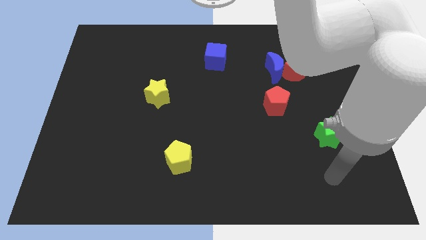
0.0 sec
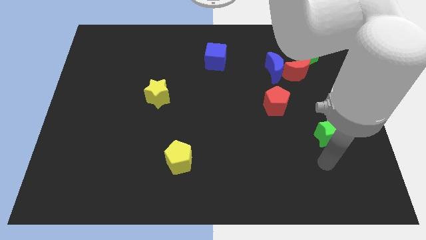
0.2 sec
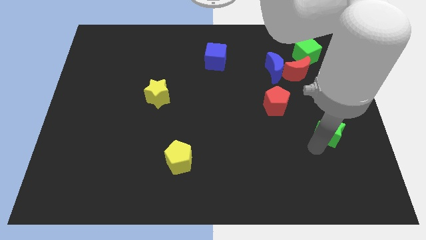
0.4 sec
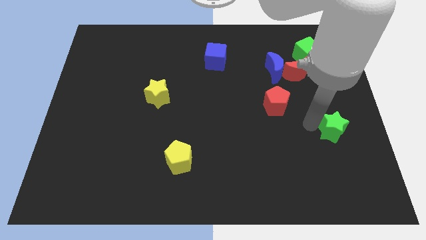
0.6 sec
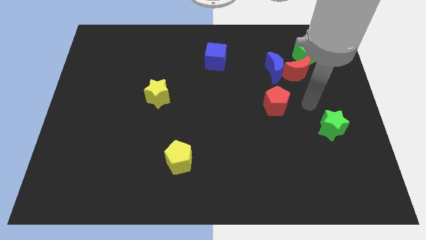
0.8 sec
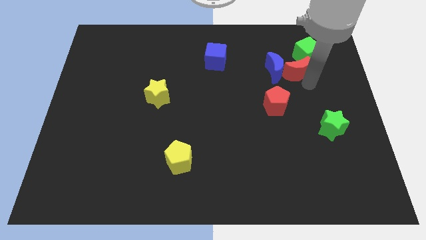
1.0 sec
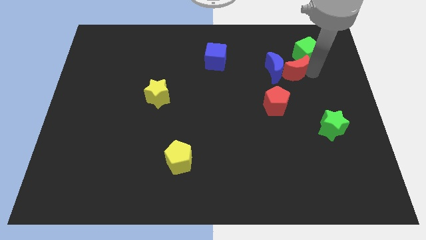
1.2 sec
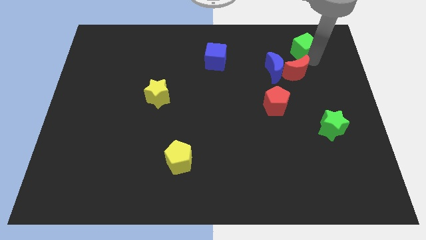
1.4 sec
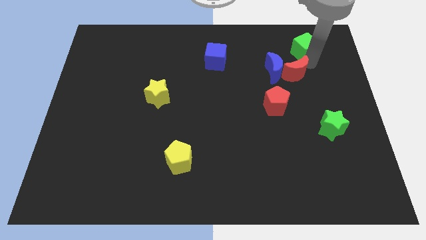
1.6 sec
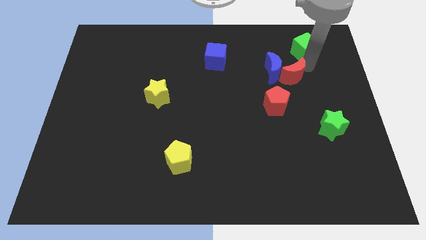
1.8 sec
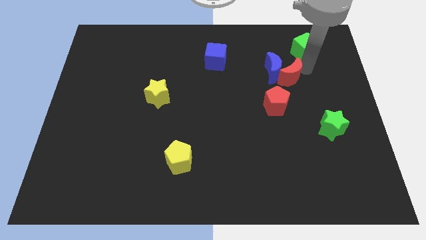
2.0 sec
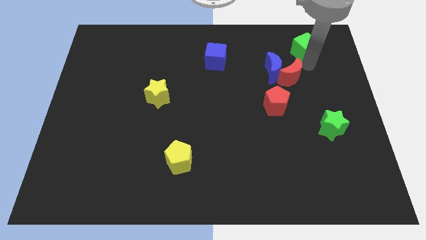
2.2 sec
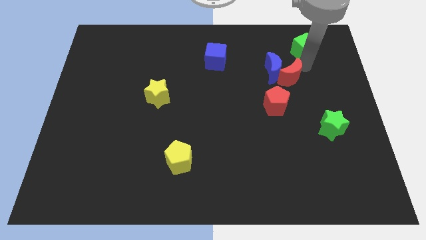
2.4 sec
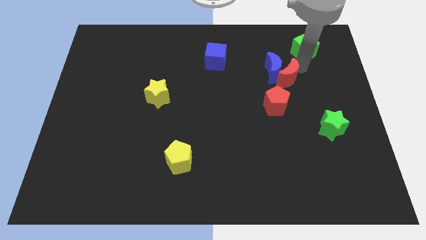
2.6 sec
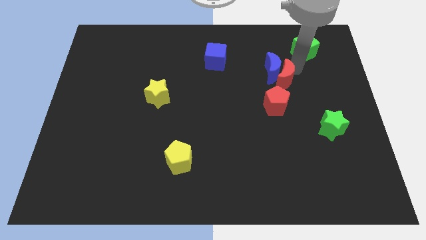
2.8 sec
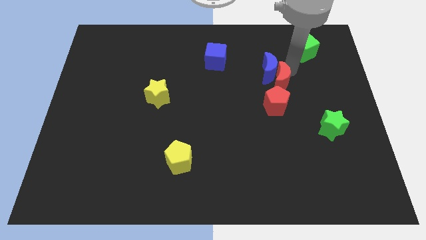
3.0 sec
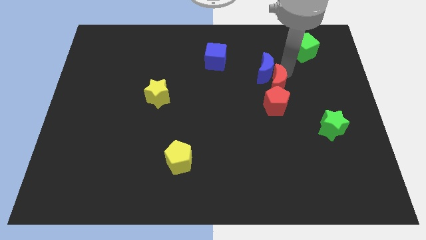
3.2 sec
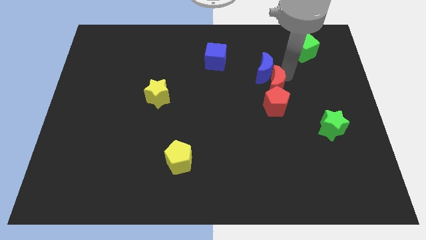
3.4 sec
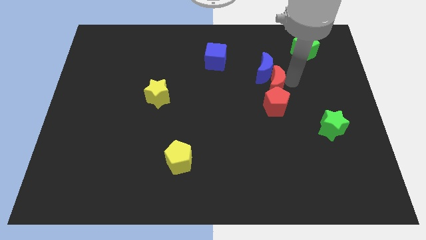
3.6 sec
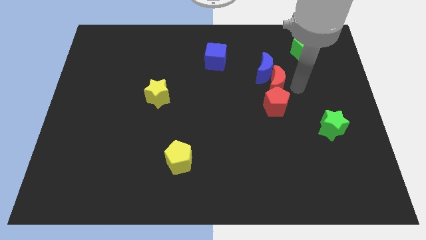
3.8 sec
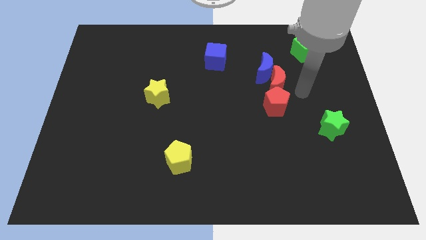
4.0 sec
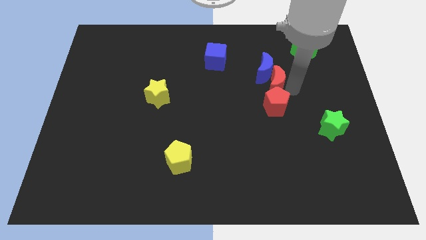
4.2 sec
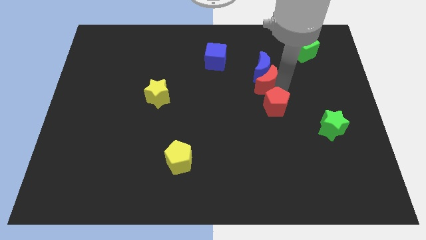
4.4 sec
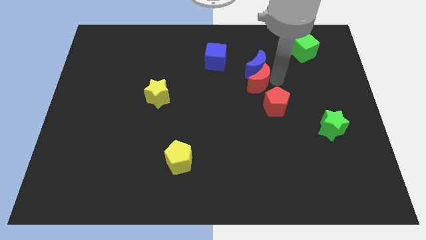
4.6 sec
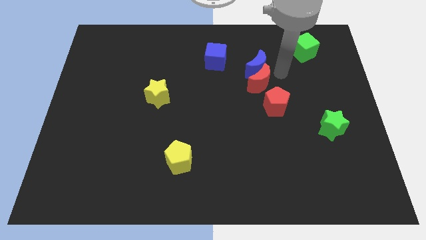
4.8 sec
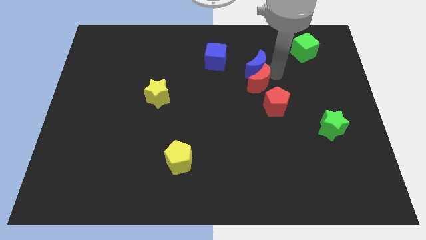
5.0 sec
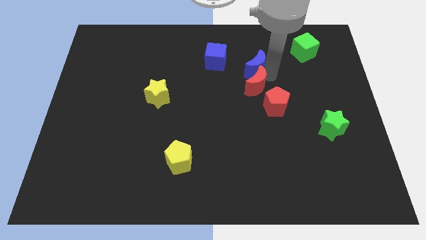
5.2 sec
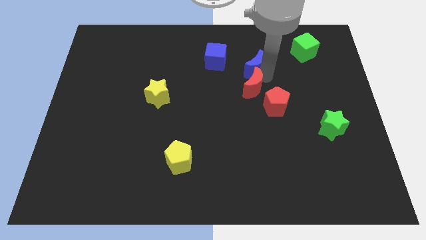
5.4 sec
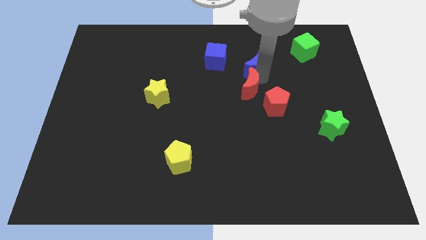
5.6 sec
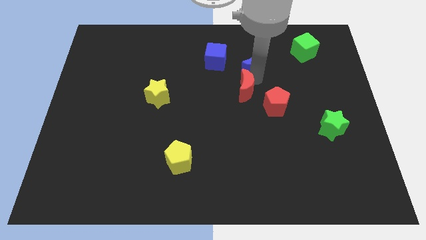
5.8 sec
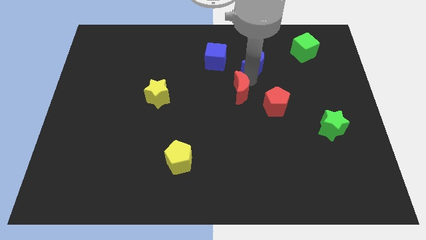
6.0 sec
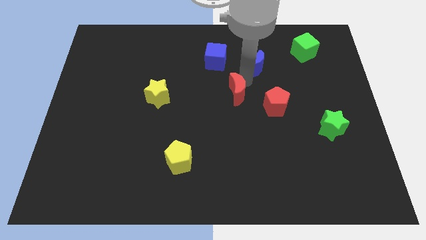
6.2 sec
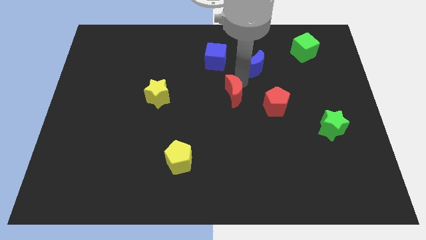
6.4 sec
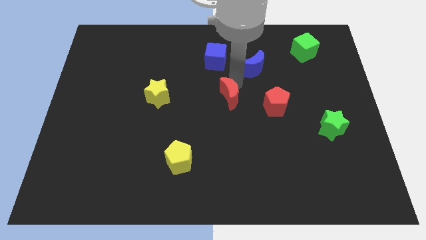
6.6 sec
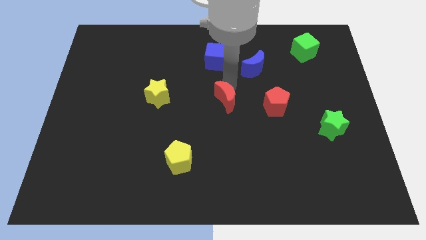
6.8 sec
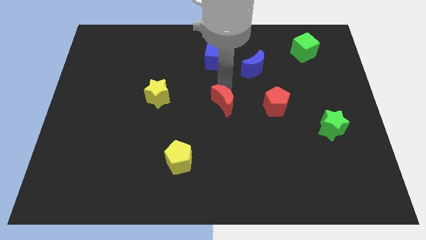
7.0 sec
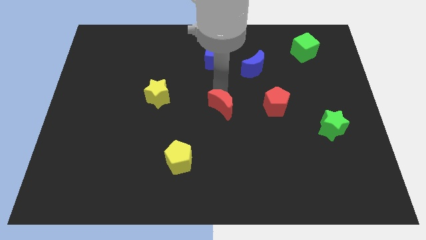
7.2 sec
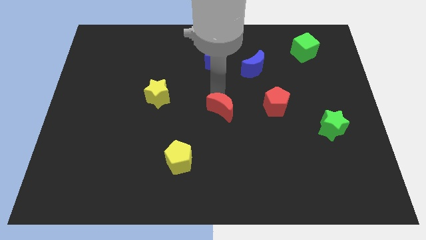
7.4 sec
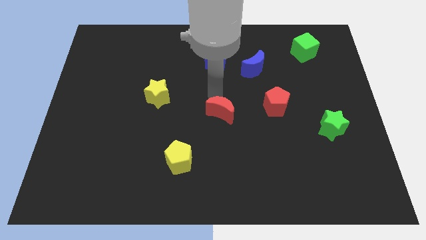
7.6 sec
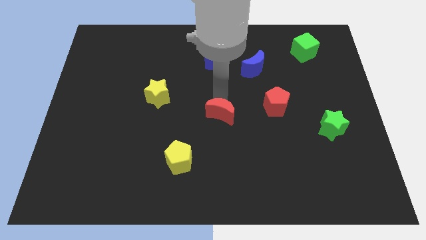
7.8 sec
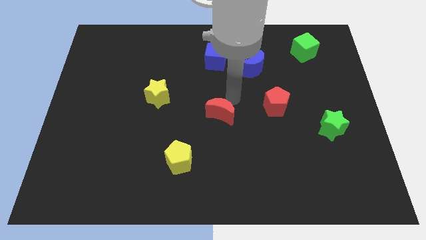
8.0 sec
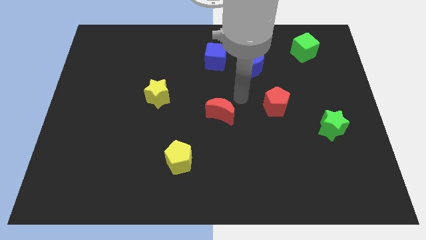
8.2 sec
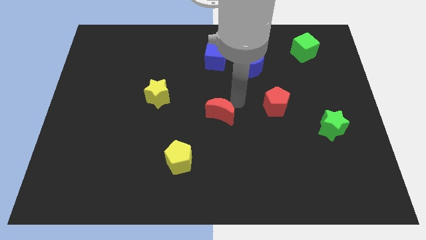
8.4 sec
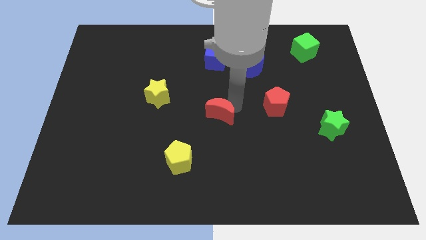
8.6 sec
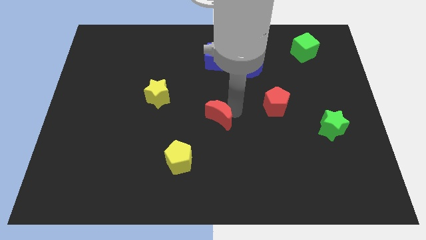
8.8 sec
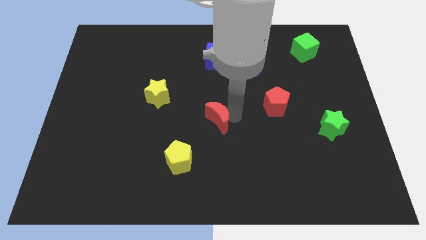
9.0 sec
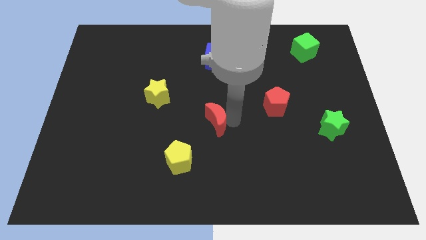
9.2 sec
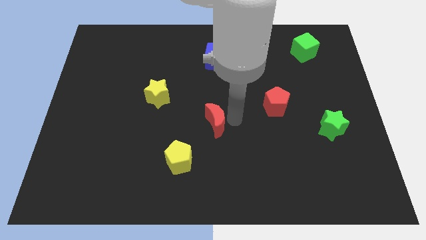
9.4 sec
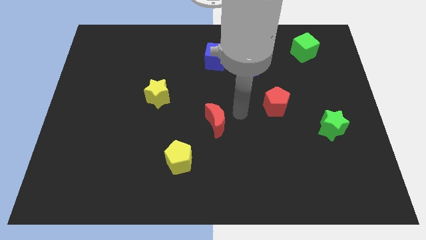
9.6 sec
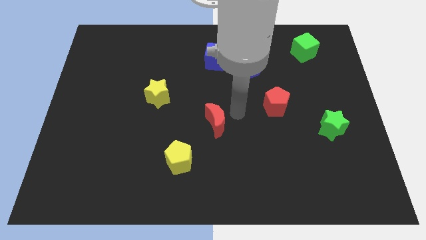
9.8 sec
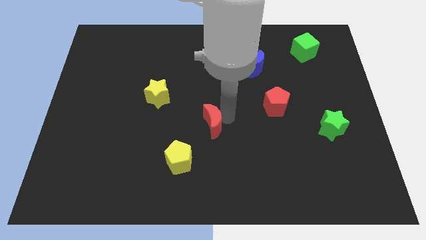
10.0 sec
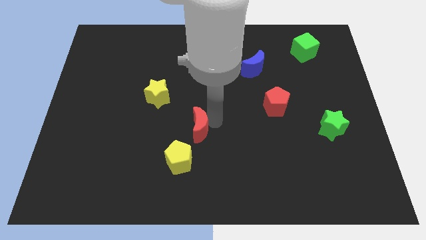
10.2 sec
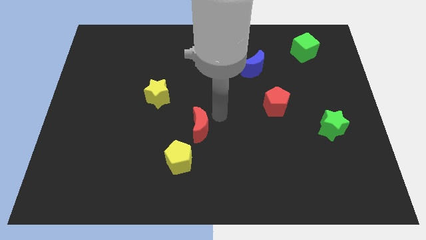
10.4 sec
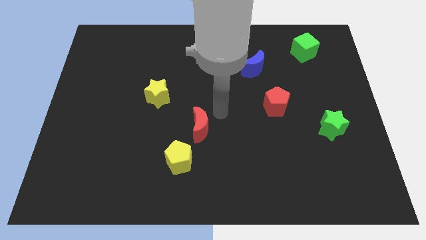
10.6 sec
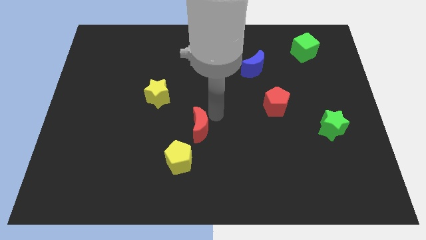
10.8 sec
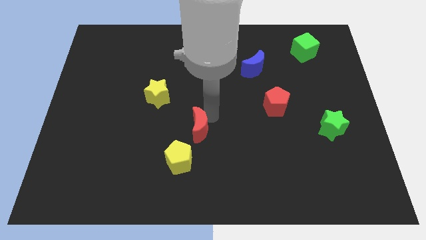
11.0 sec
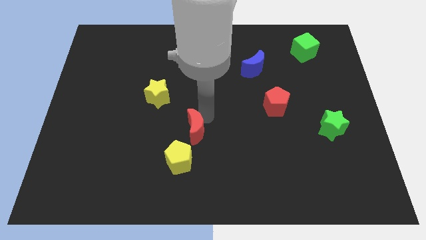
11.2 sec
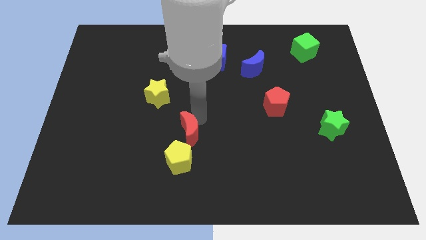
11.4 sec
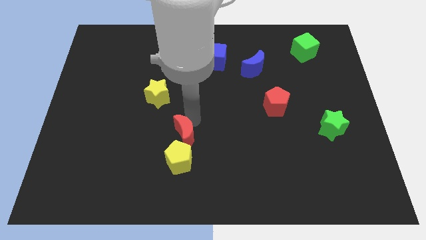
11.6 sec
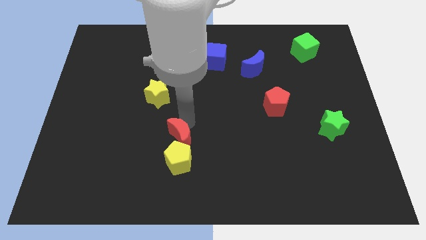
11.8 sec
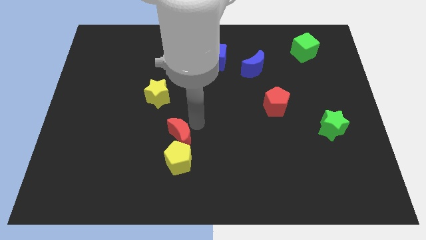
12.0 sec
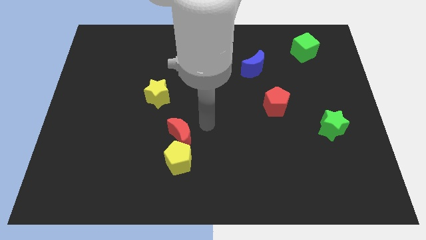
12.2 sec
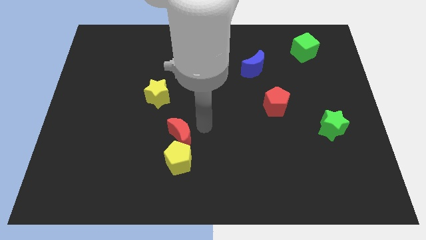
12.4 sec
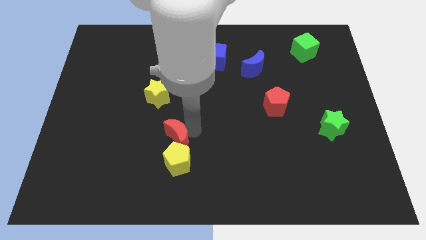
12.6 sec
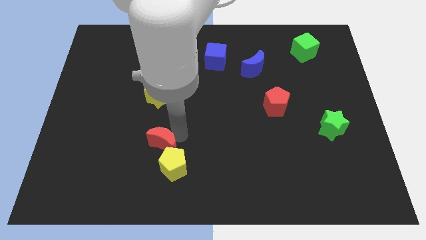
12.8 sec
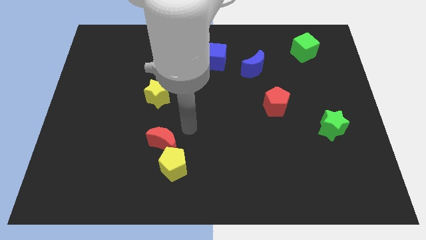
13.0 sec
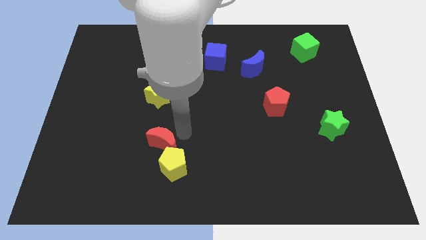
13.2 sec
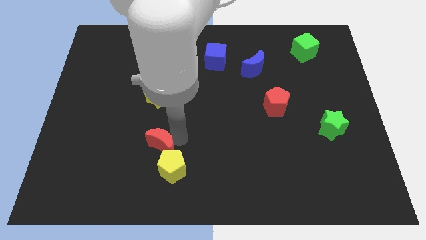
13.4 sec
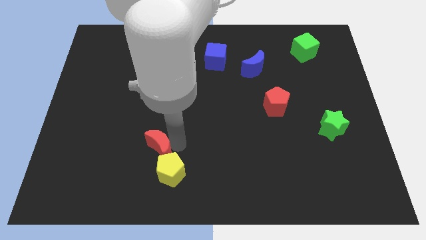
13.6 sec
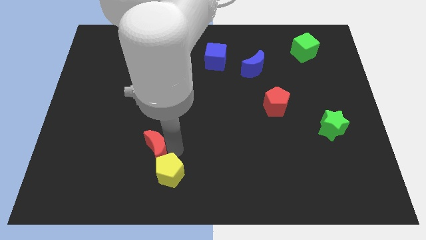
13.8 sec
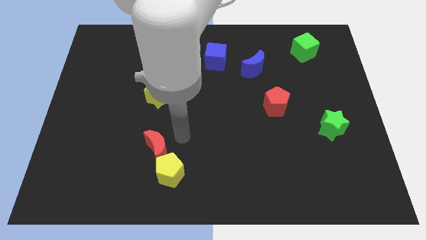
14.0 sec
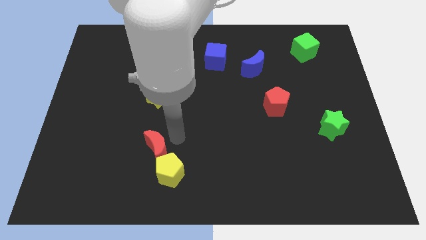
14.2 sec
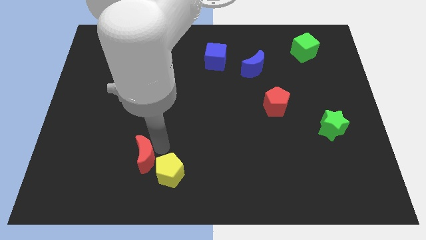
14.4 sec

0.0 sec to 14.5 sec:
put the red moon to the left side of the yellow pentagon

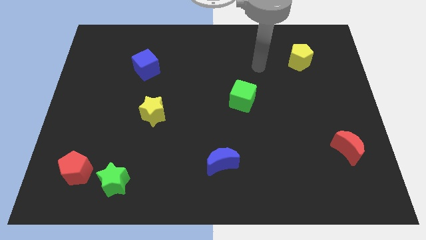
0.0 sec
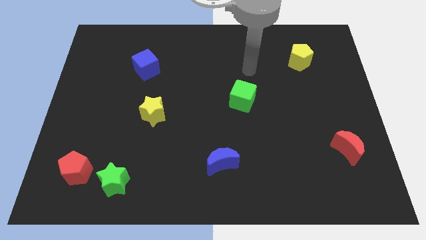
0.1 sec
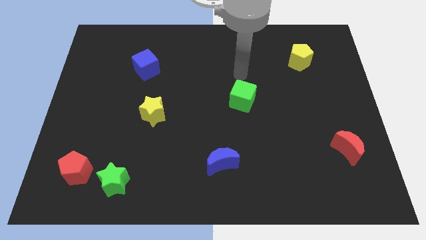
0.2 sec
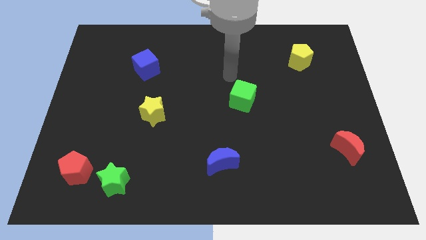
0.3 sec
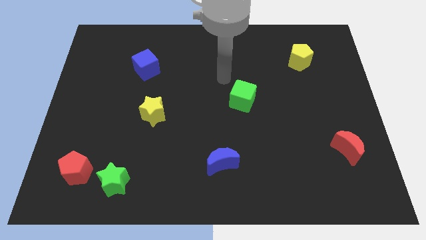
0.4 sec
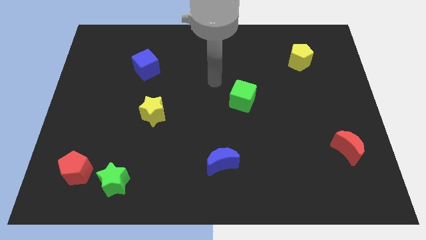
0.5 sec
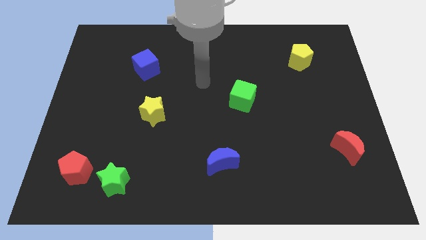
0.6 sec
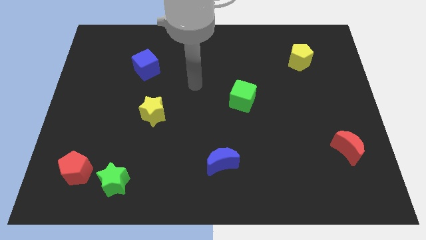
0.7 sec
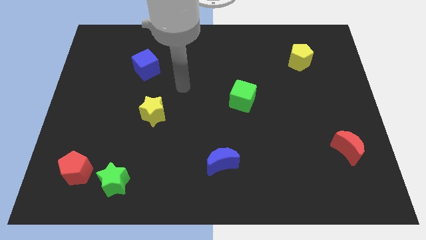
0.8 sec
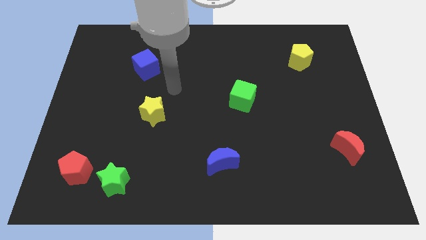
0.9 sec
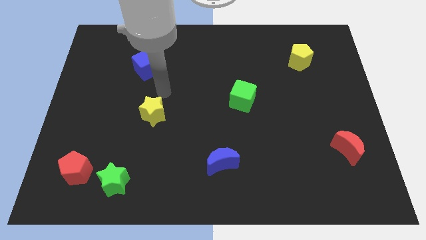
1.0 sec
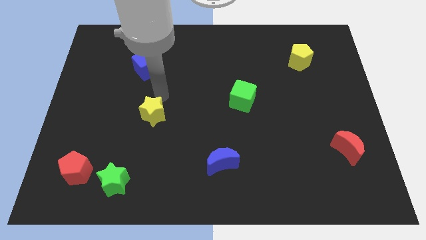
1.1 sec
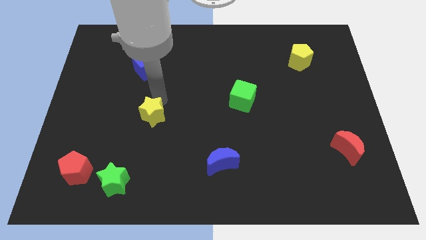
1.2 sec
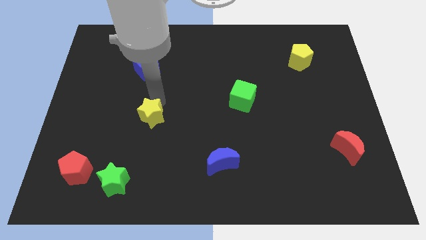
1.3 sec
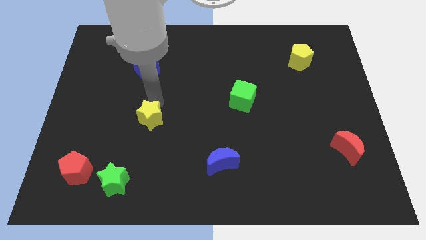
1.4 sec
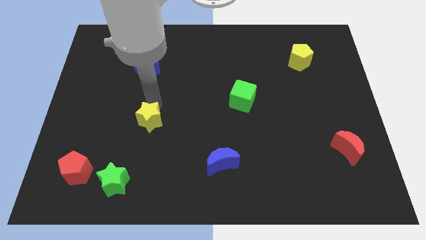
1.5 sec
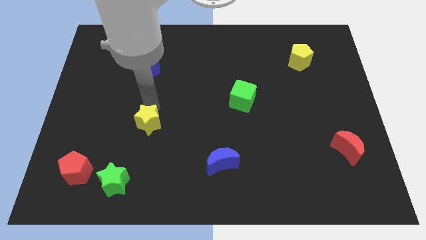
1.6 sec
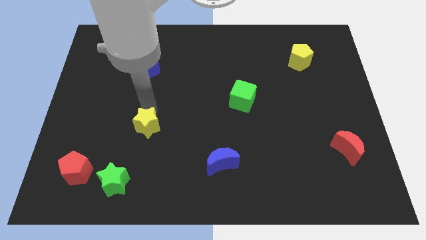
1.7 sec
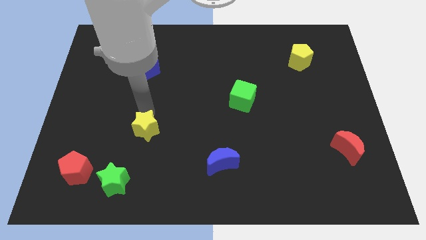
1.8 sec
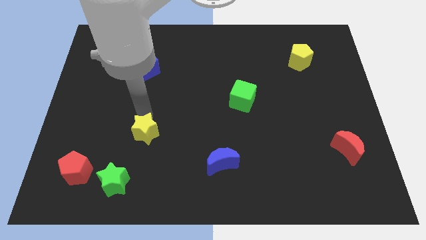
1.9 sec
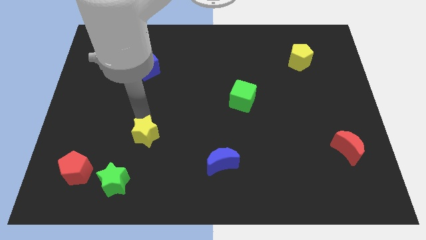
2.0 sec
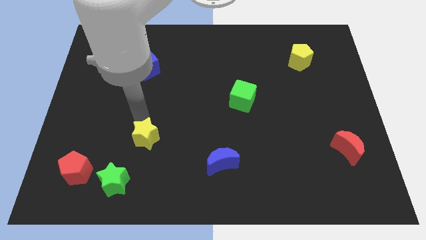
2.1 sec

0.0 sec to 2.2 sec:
push the yellow star to the top right side of the green star
